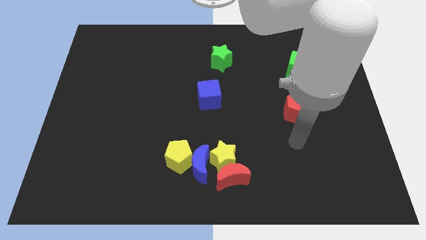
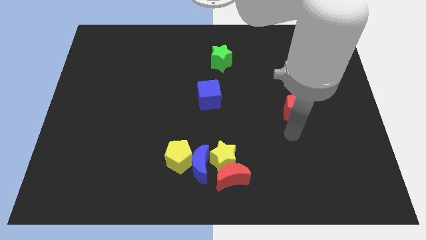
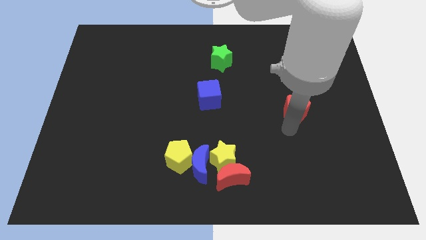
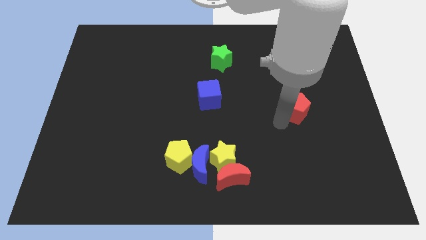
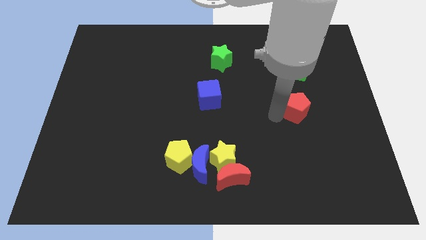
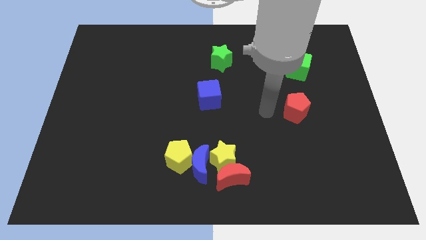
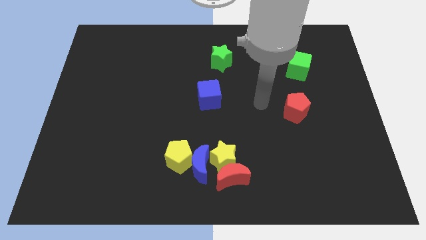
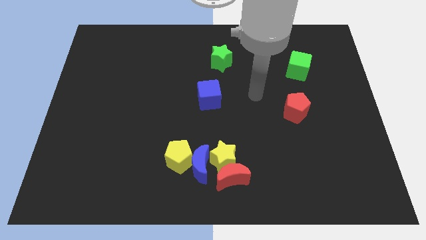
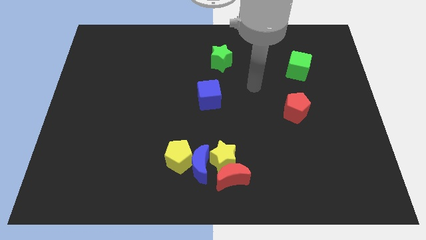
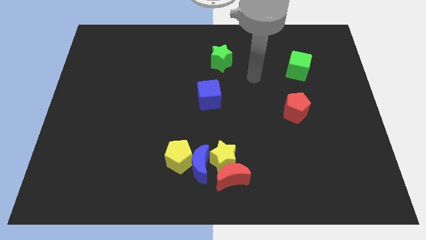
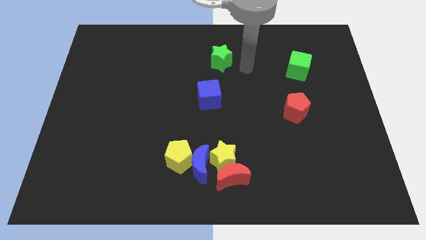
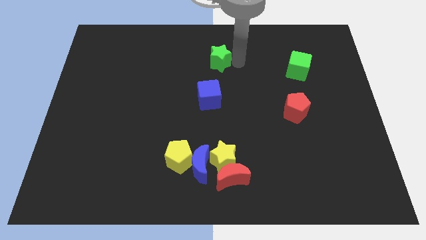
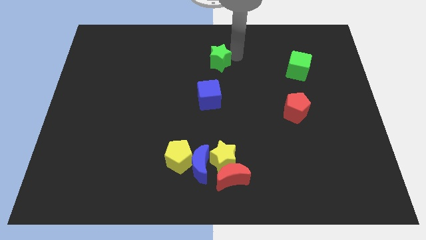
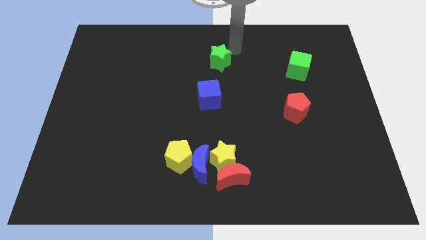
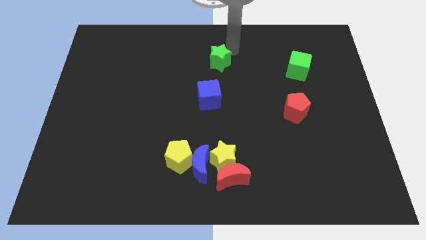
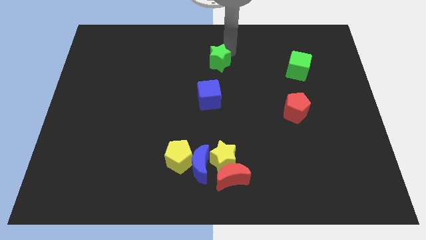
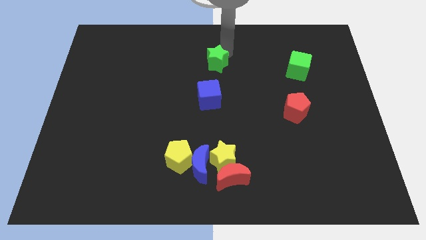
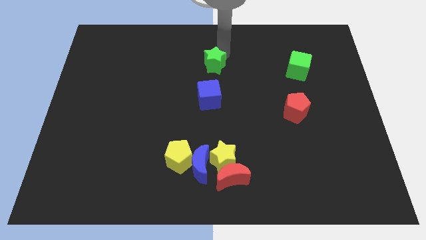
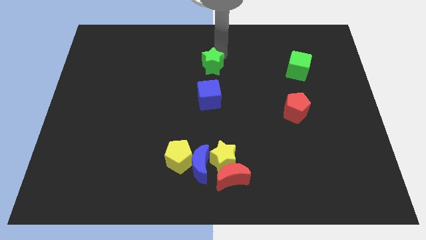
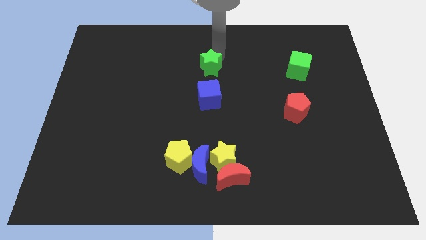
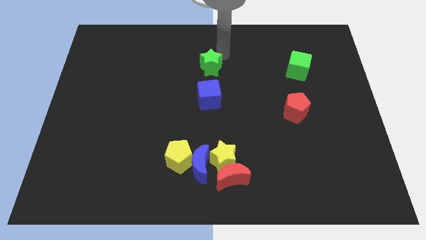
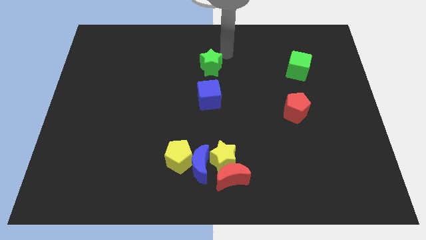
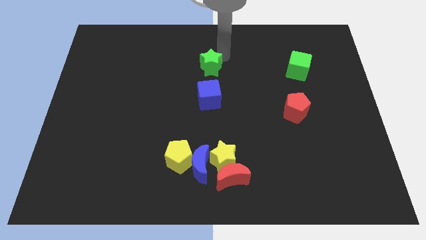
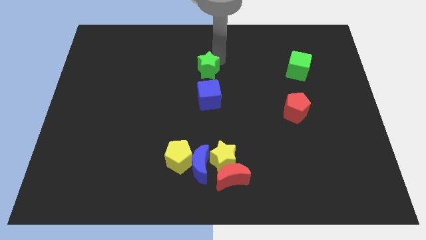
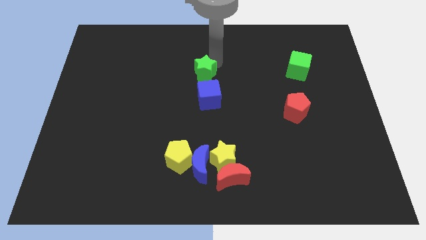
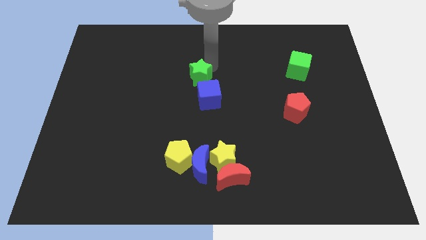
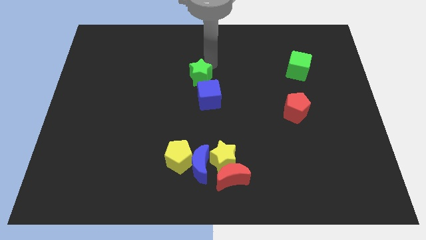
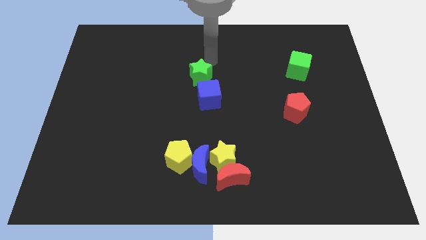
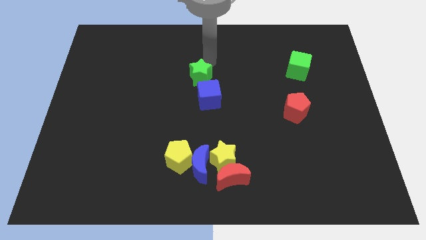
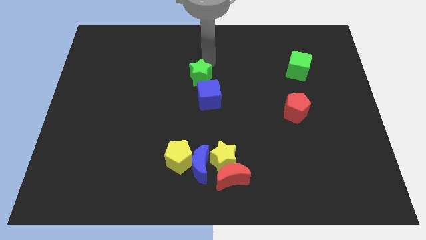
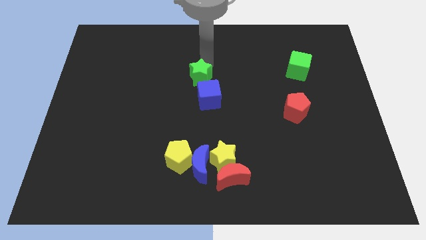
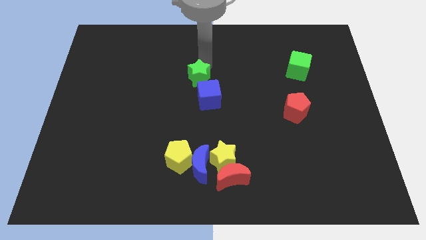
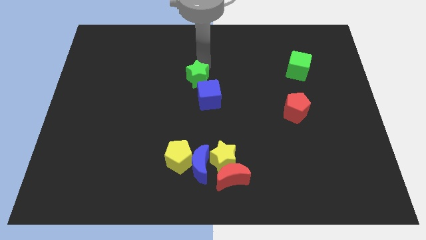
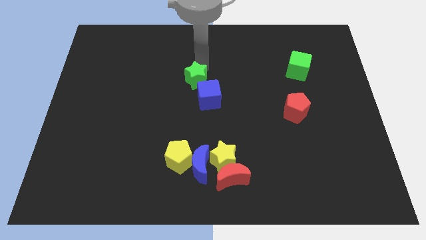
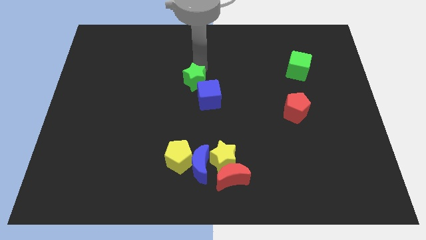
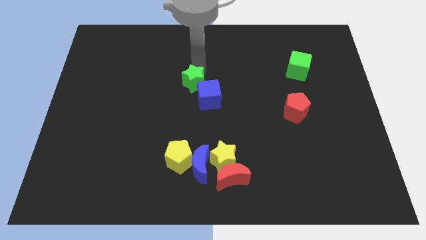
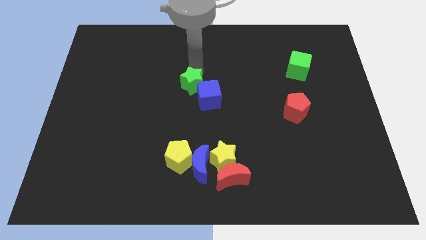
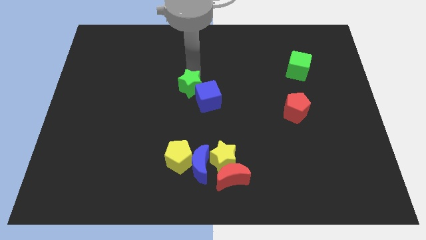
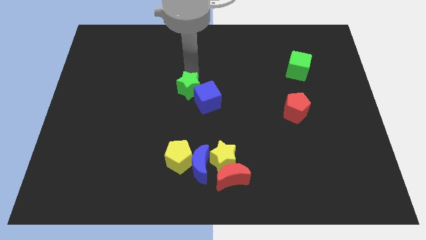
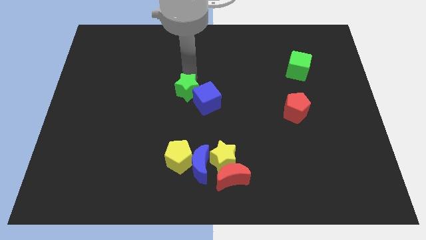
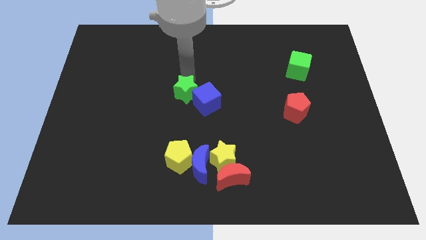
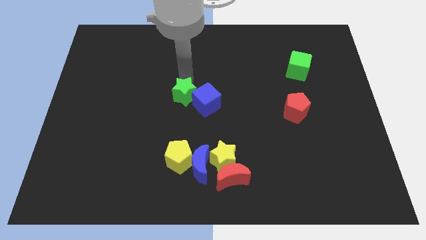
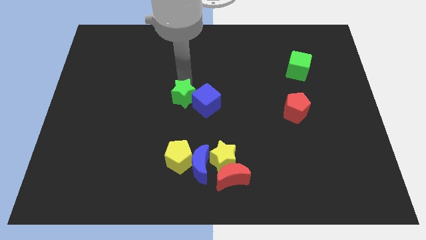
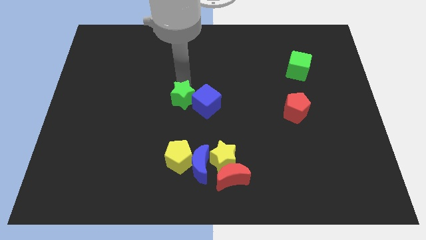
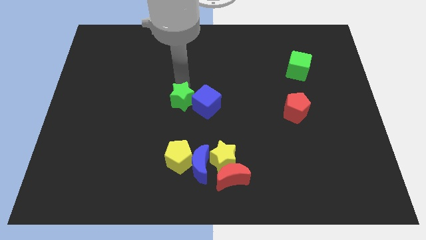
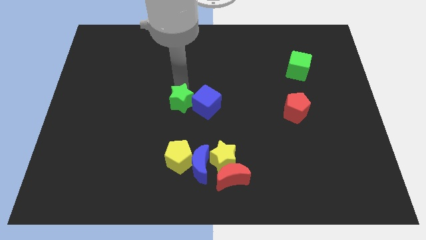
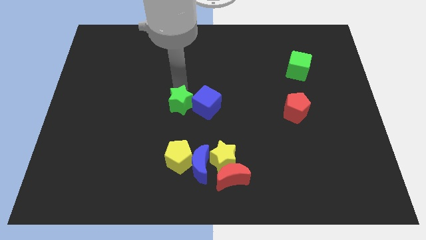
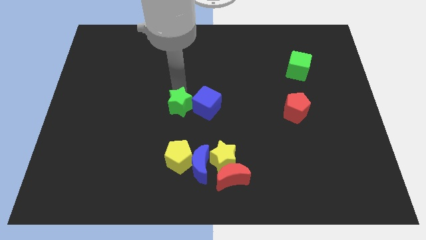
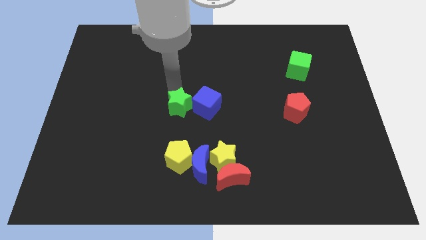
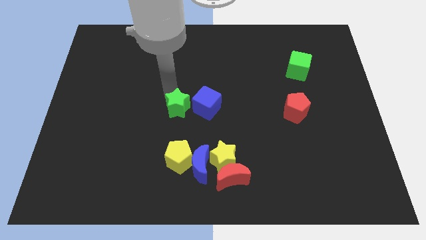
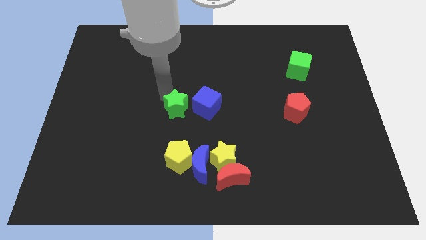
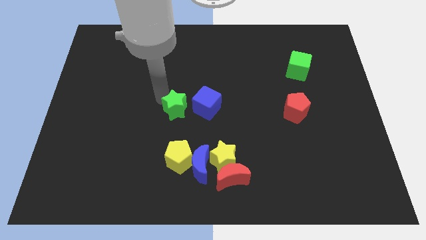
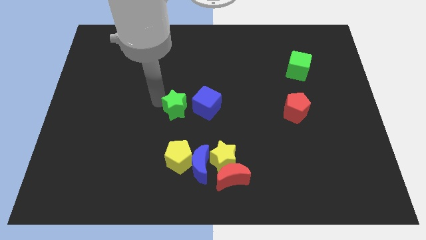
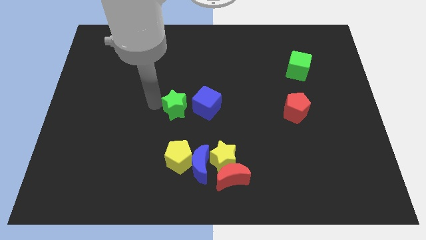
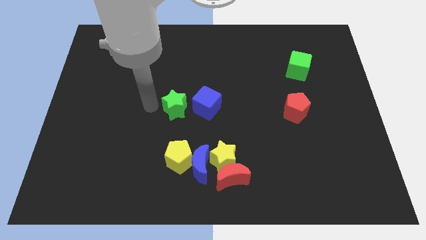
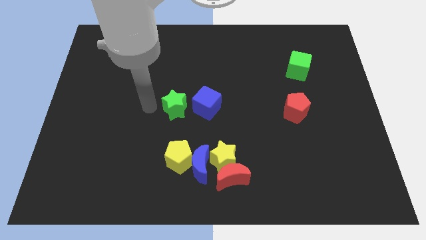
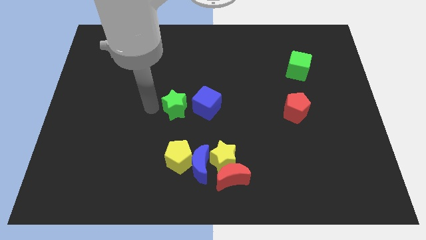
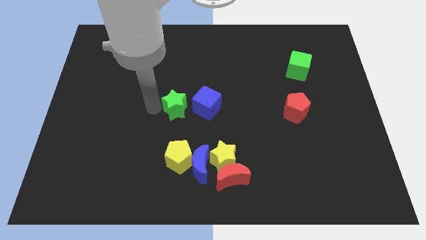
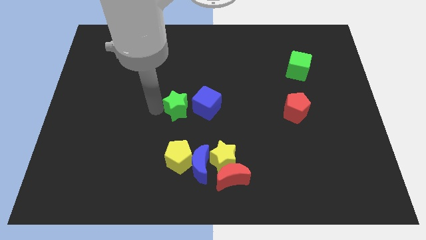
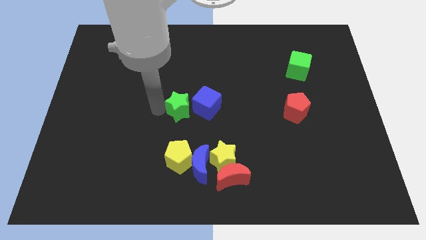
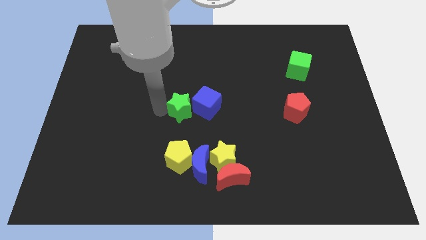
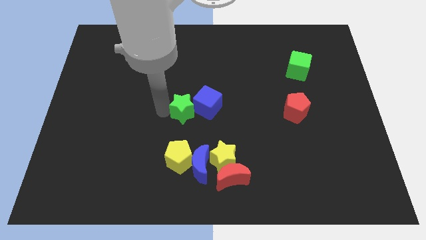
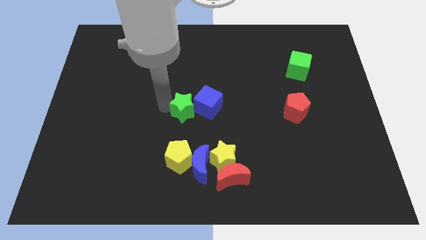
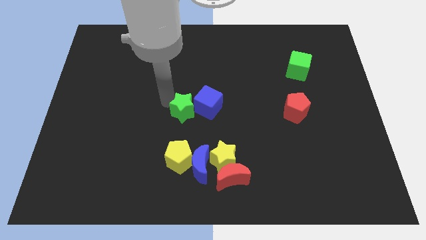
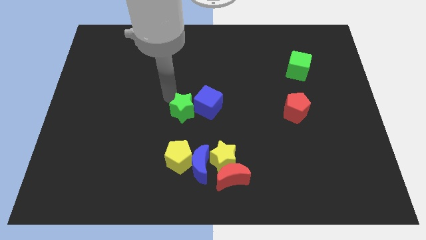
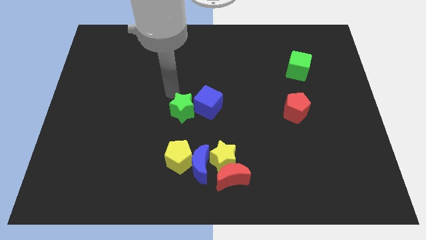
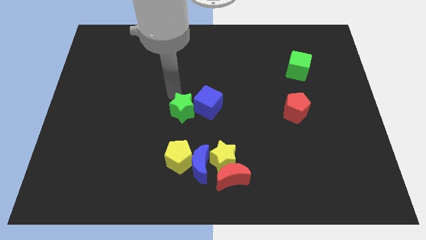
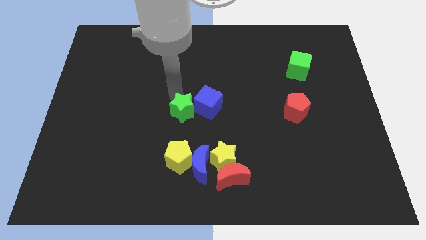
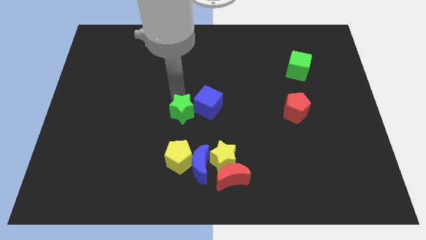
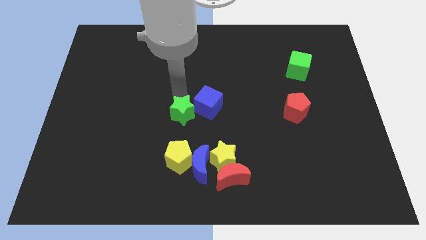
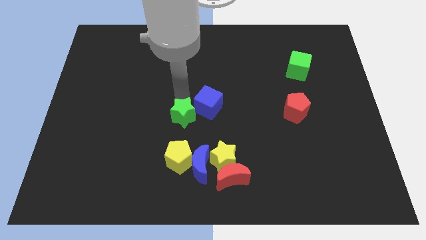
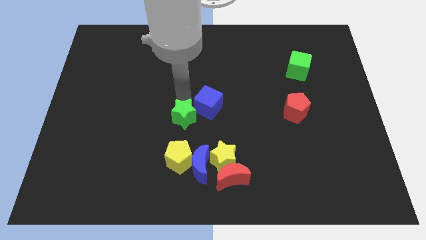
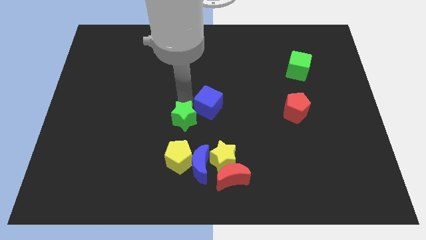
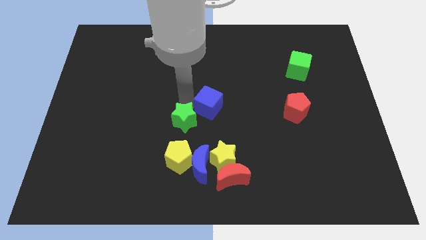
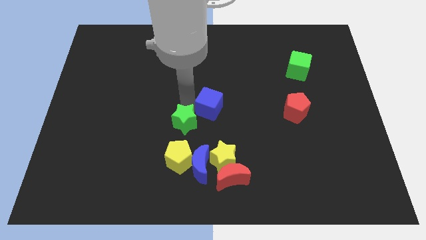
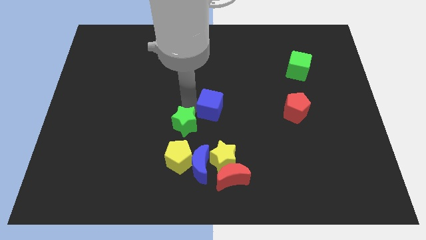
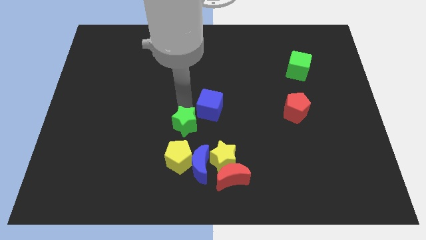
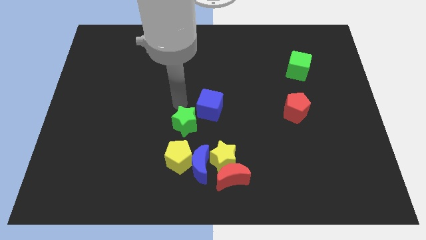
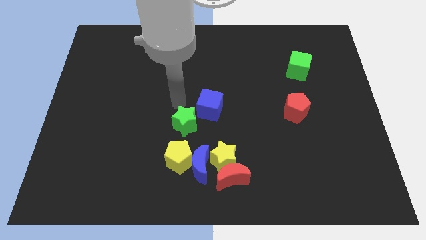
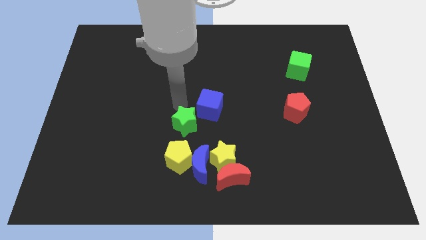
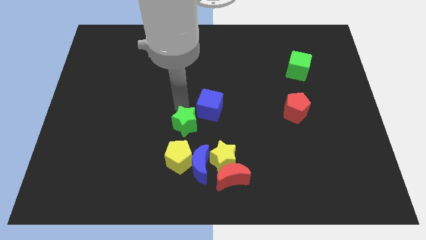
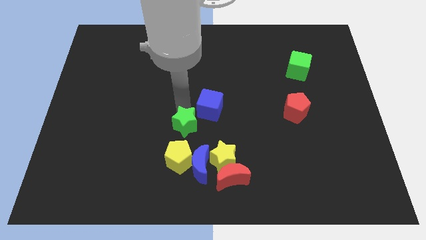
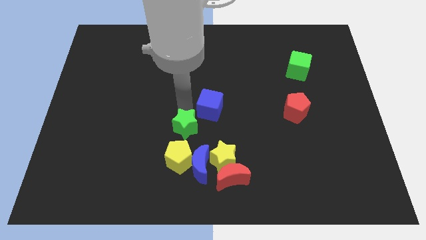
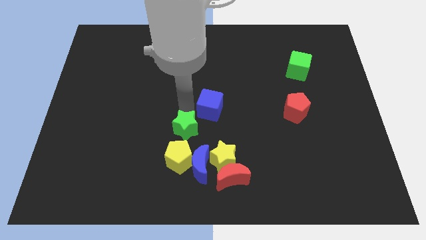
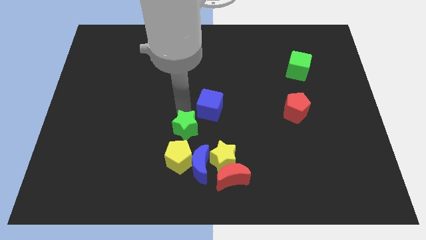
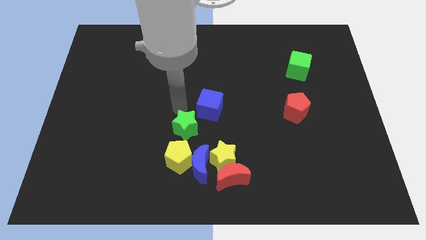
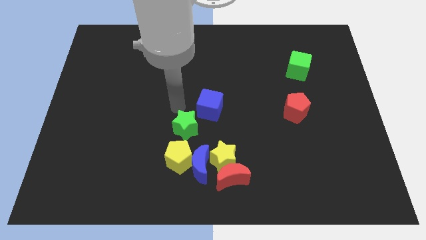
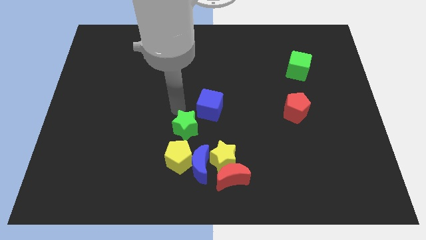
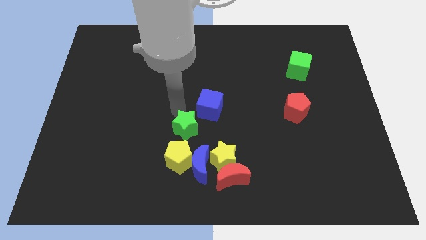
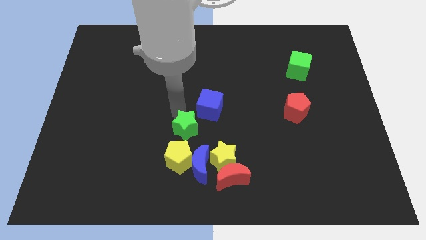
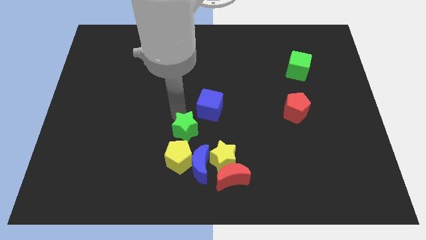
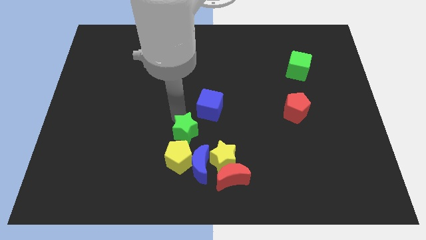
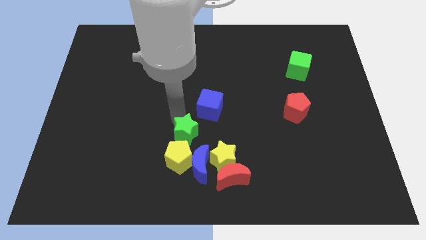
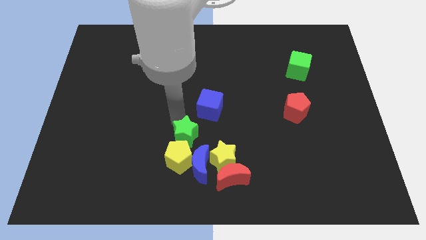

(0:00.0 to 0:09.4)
put the green star close to the yellow pentagon
